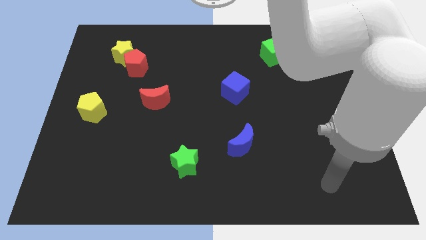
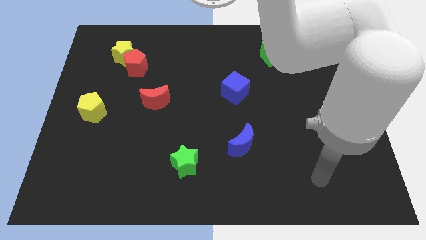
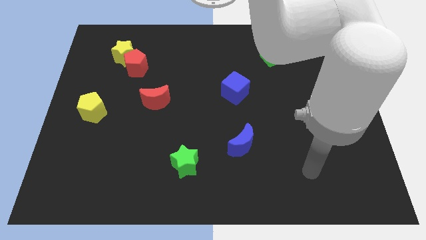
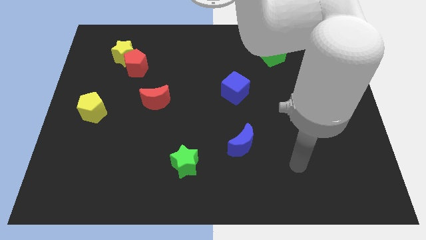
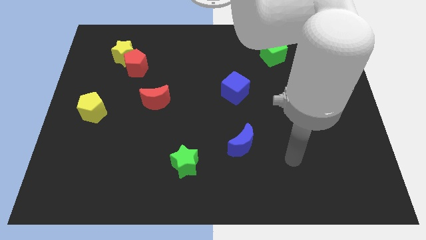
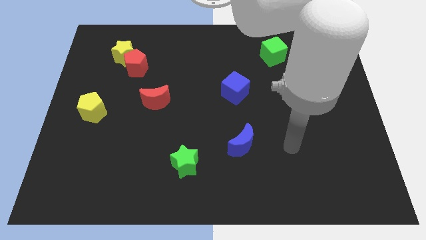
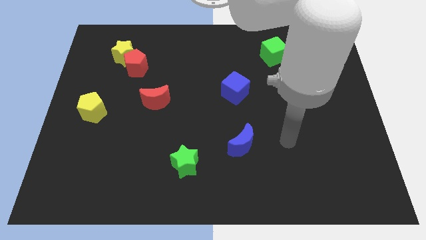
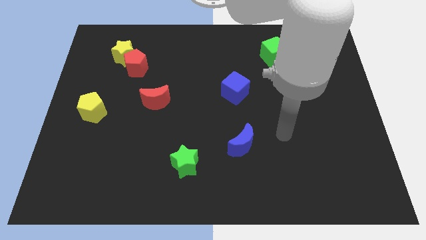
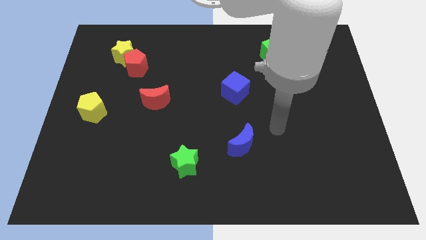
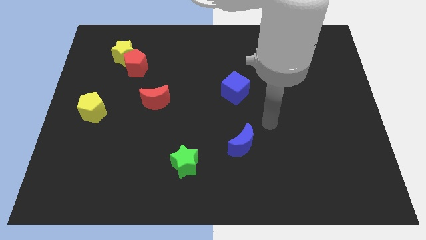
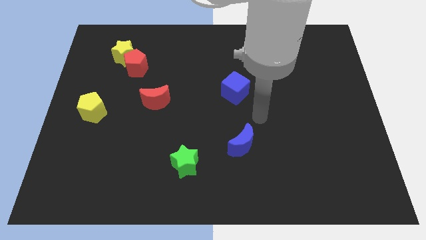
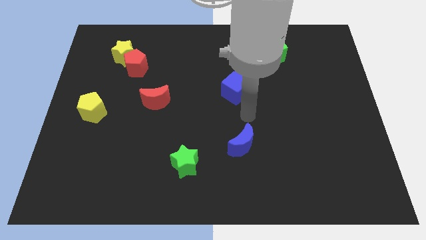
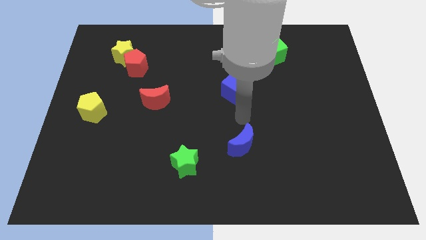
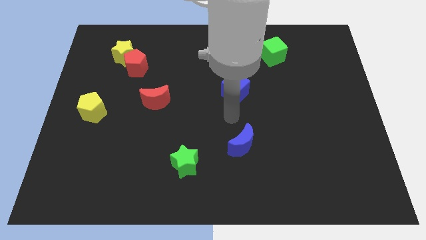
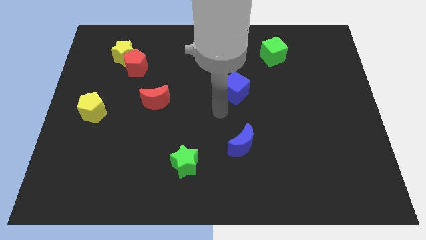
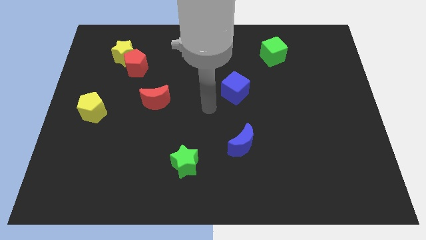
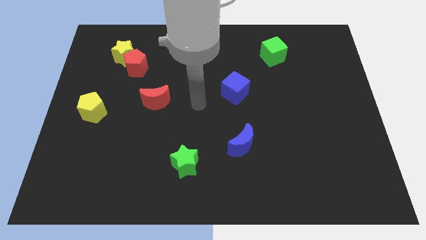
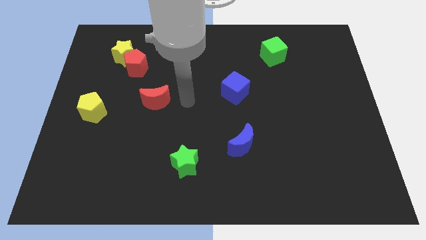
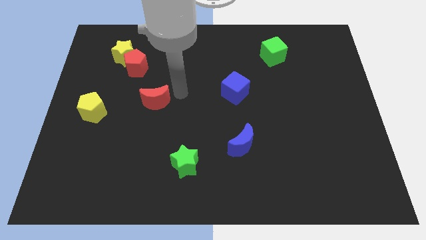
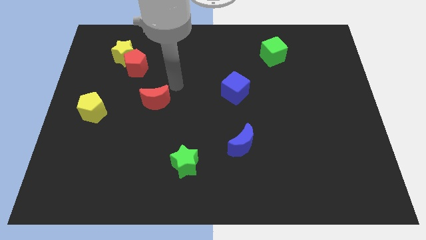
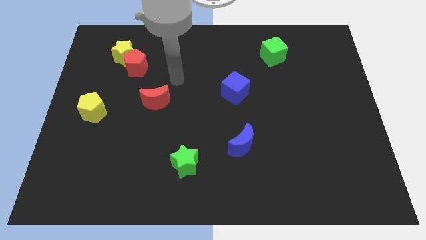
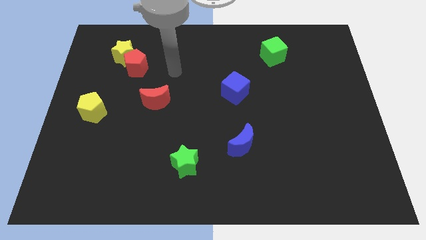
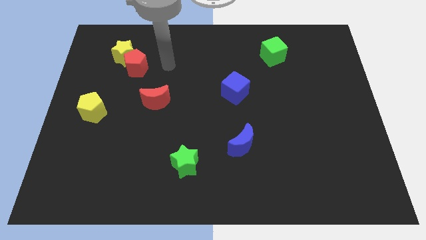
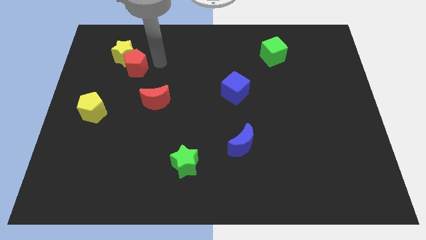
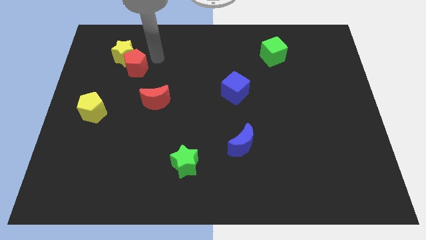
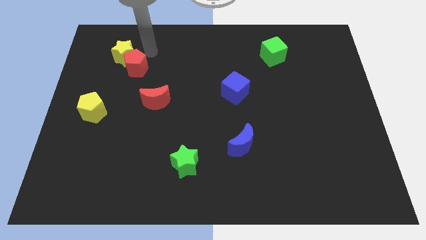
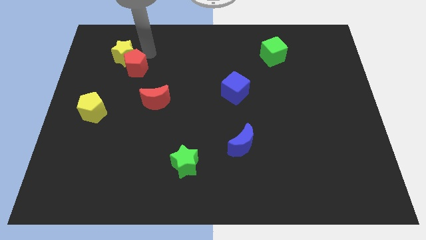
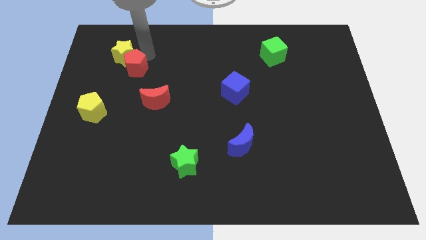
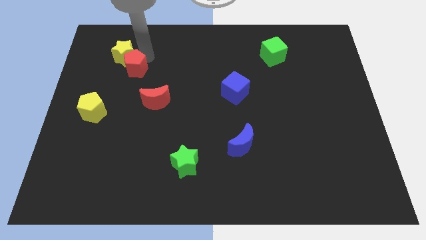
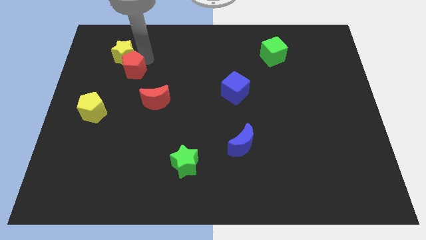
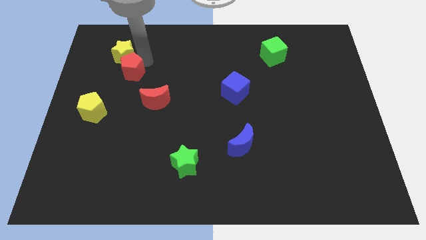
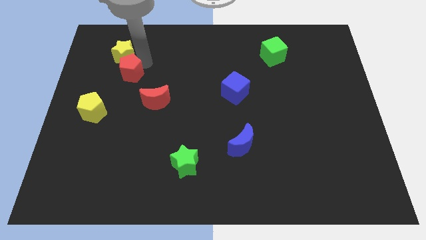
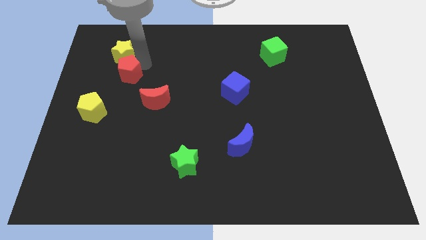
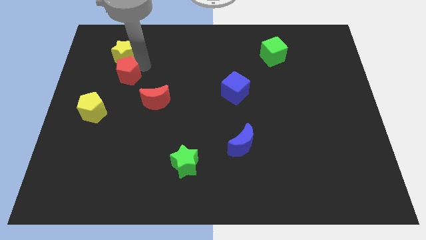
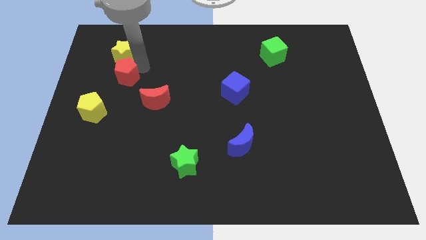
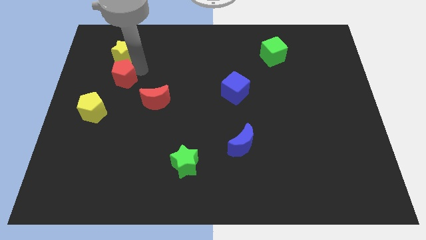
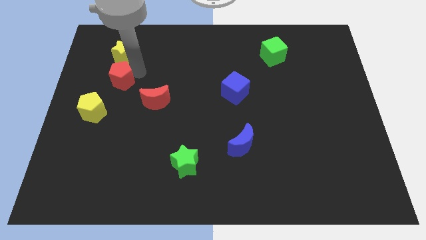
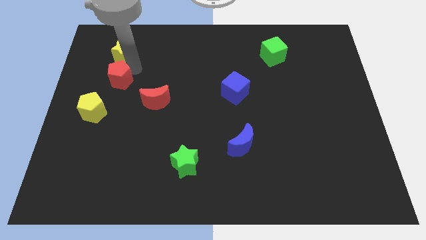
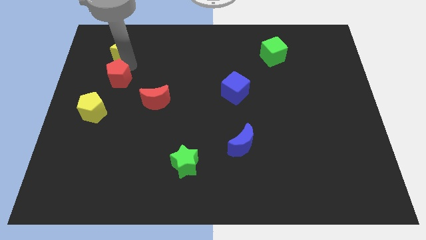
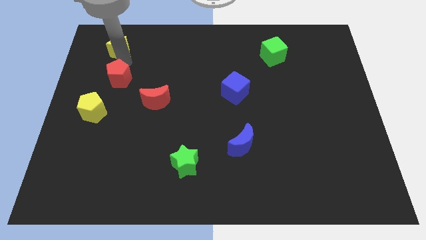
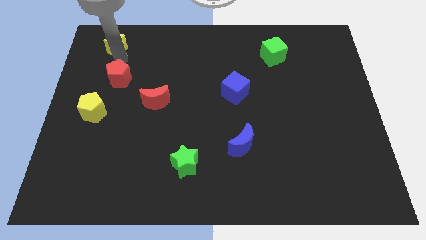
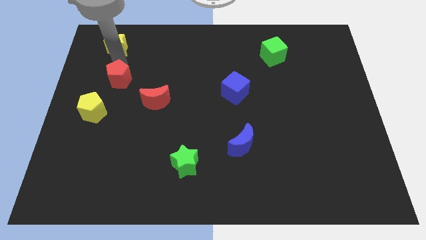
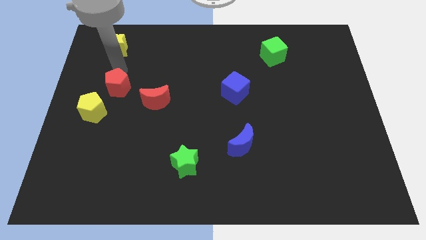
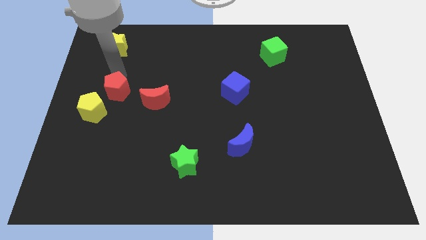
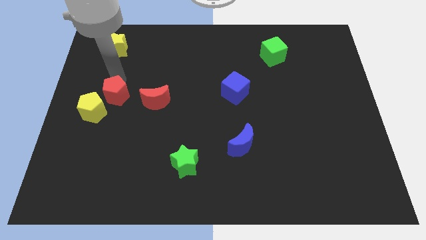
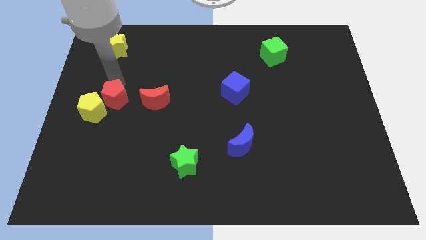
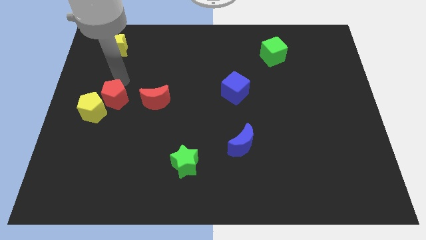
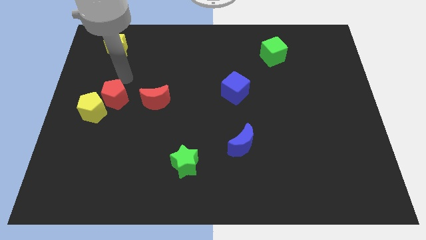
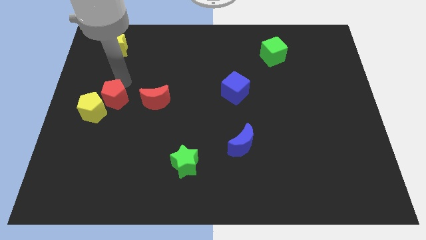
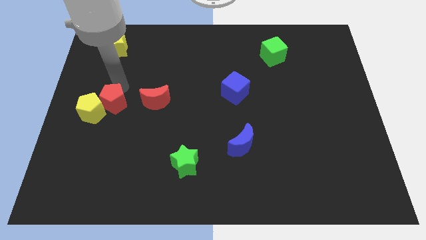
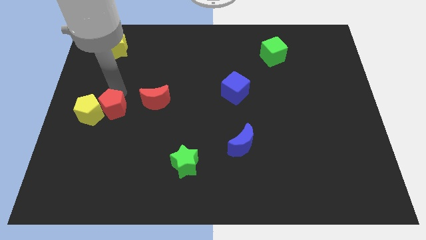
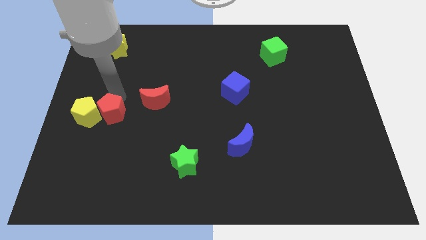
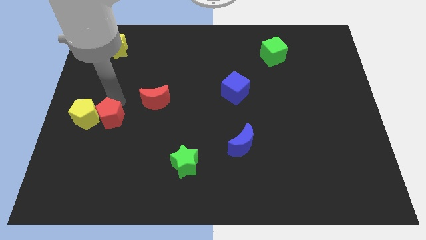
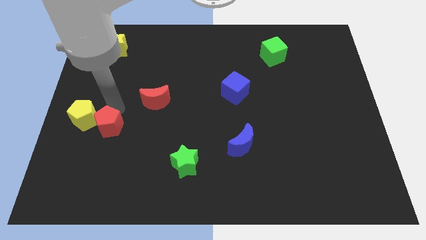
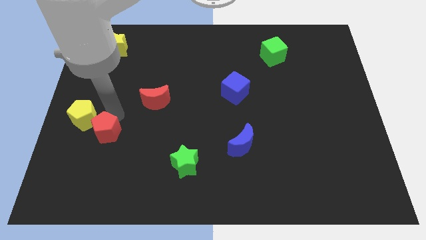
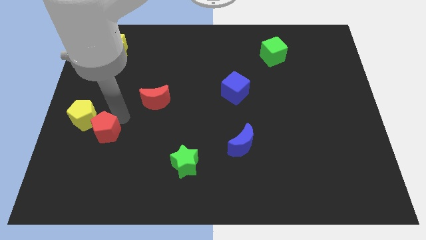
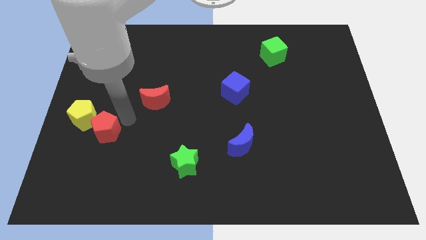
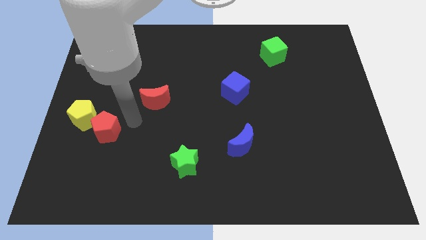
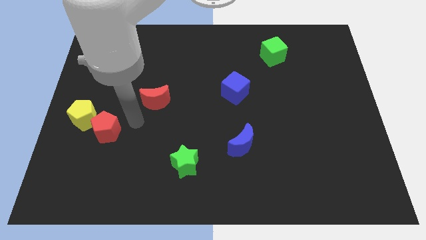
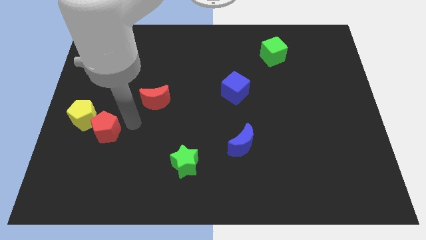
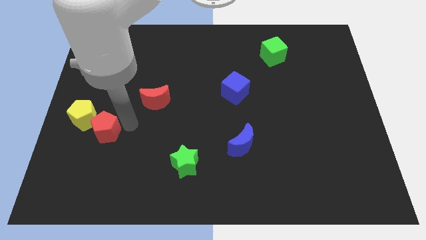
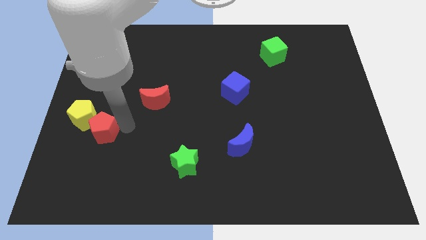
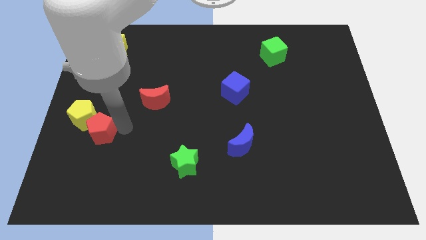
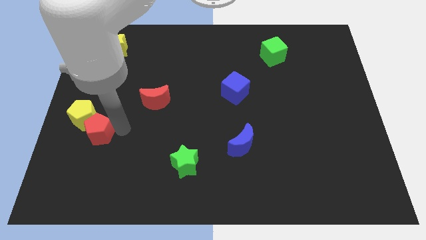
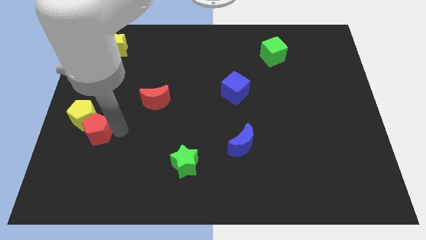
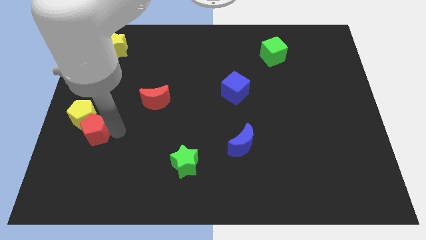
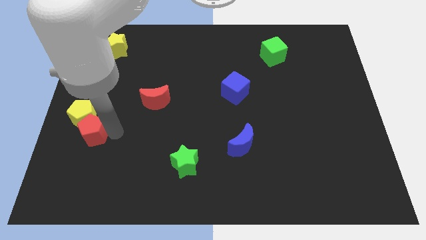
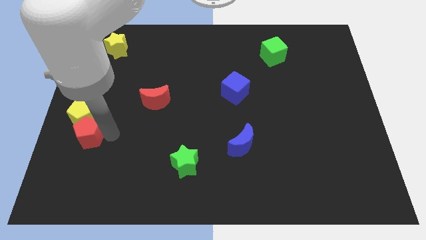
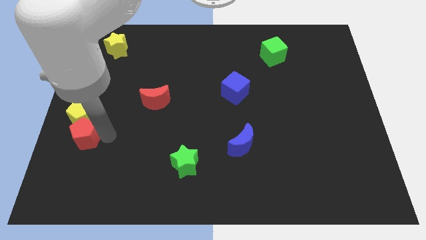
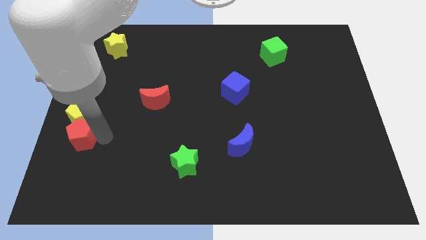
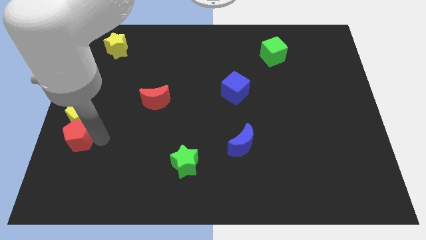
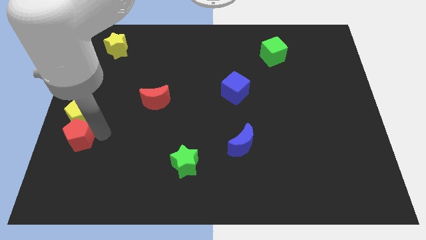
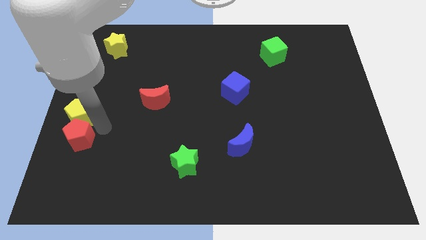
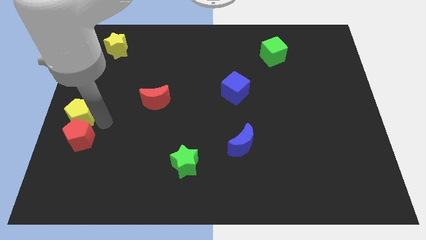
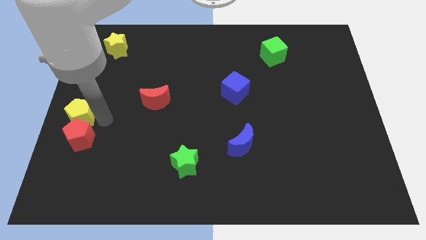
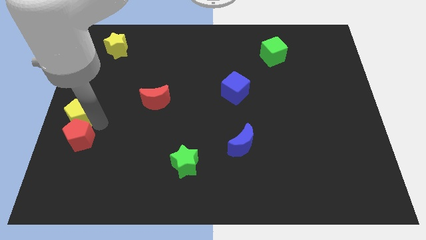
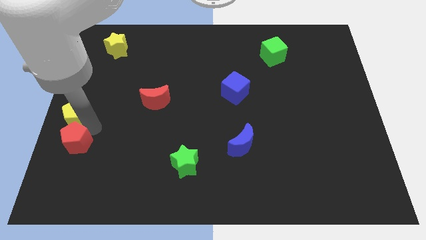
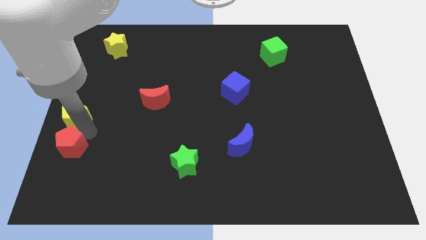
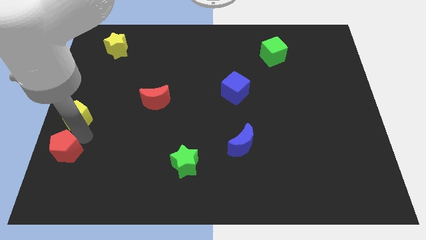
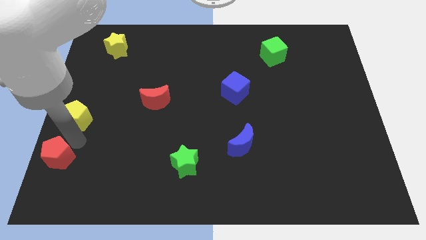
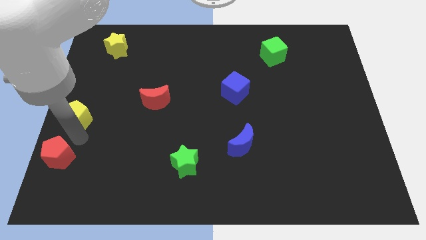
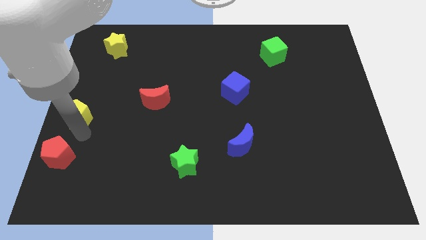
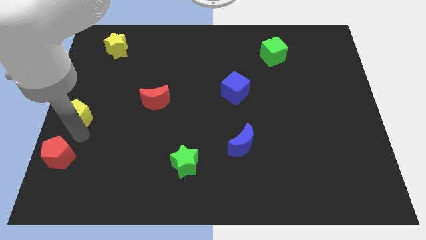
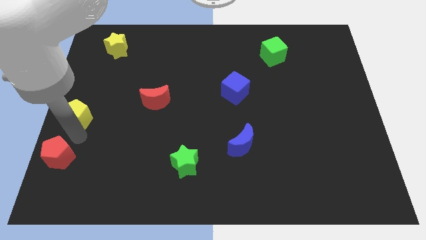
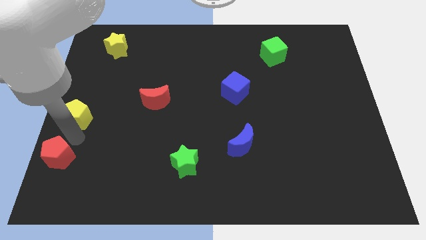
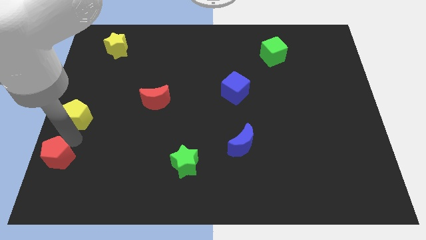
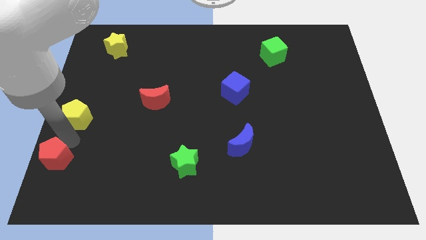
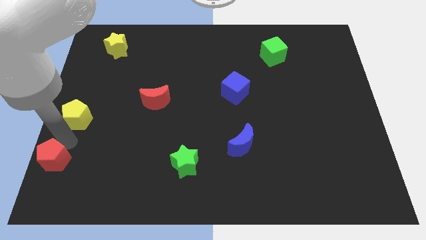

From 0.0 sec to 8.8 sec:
push the red pentagon to the bottom left corner
